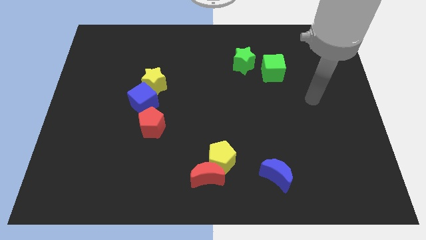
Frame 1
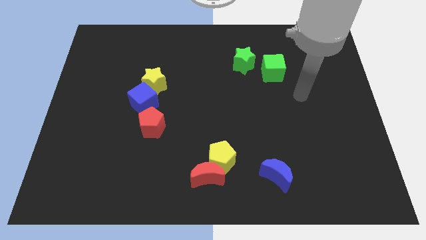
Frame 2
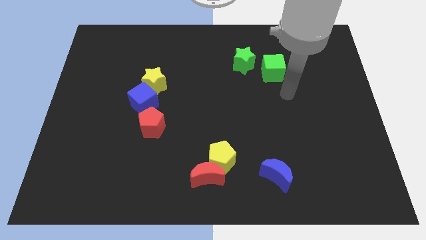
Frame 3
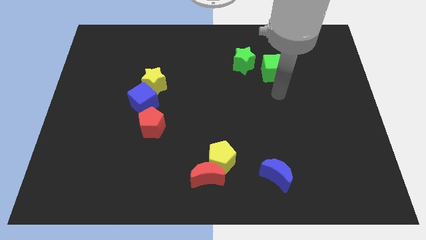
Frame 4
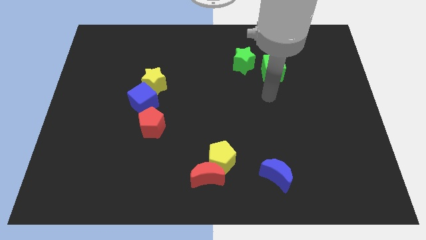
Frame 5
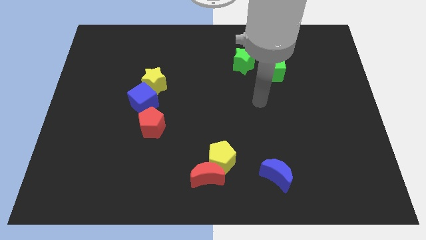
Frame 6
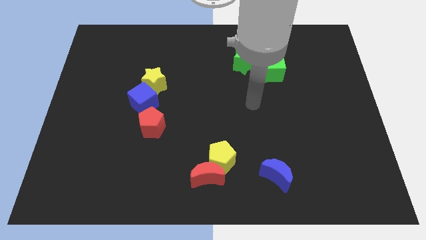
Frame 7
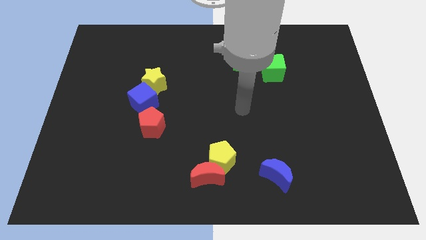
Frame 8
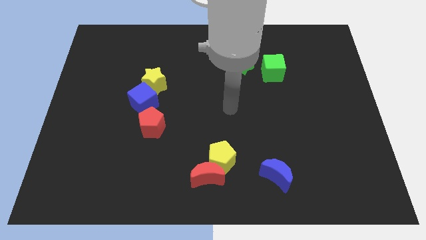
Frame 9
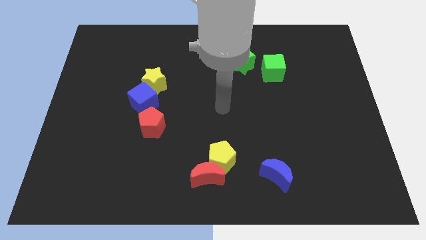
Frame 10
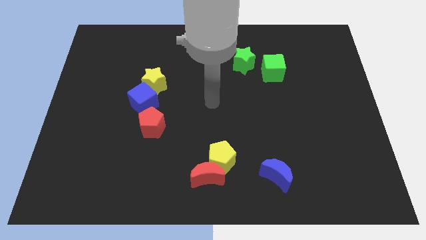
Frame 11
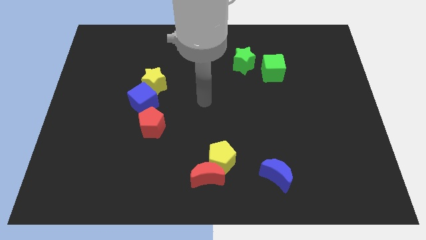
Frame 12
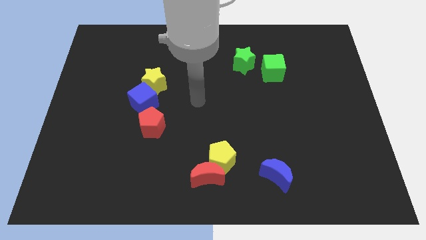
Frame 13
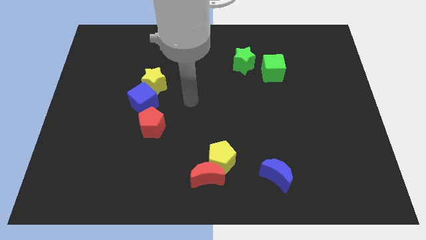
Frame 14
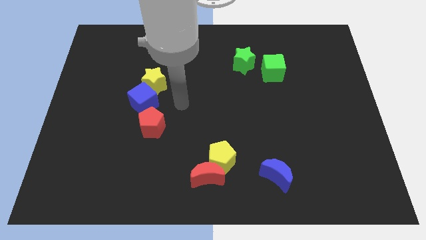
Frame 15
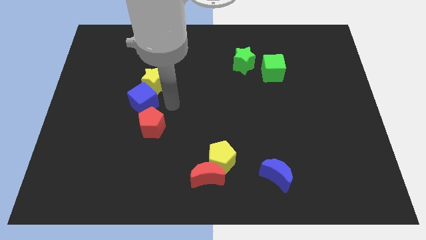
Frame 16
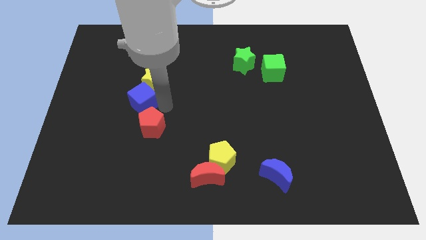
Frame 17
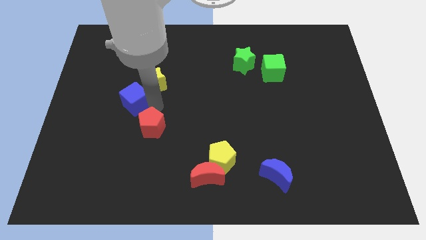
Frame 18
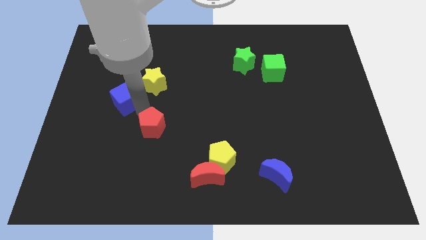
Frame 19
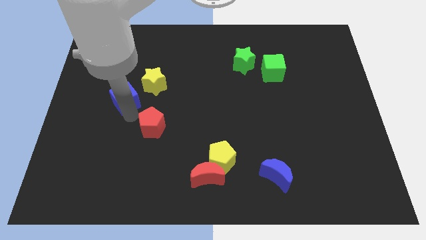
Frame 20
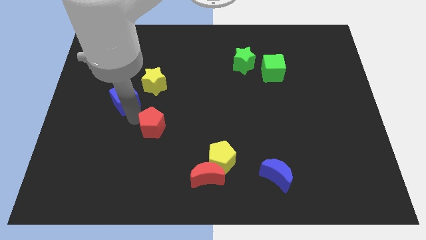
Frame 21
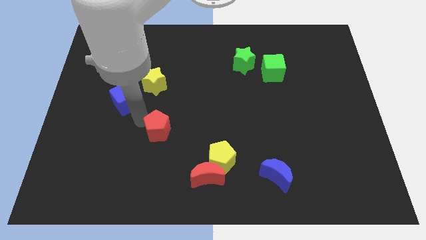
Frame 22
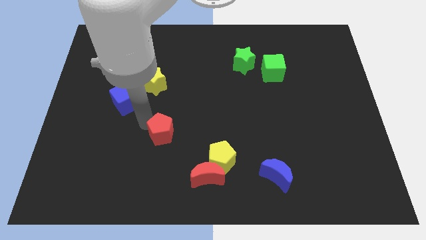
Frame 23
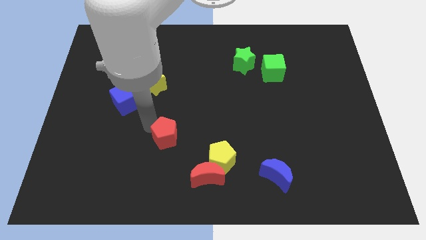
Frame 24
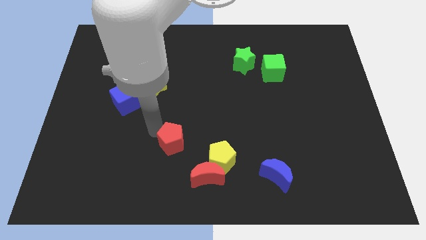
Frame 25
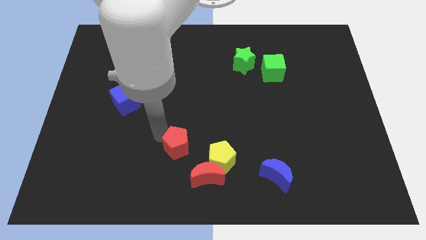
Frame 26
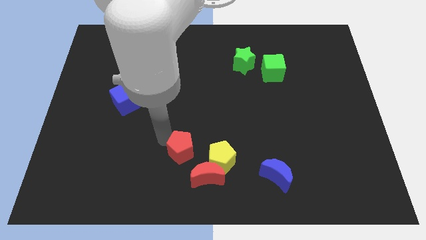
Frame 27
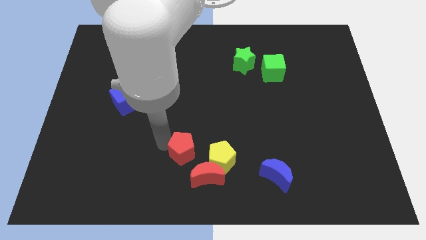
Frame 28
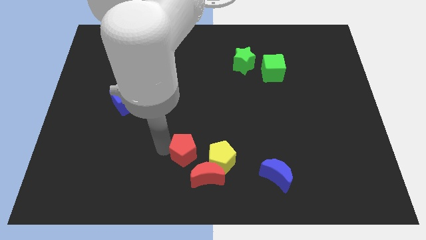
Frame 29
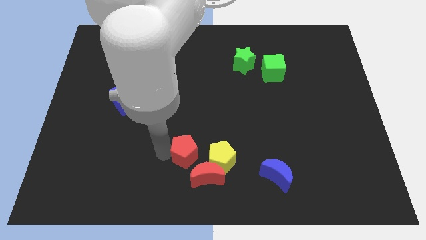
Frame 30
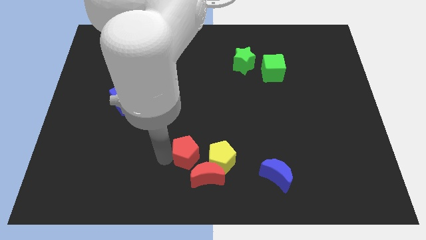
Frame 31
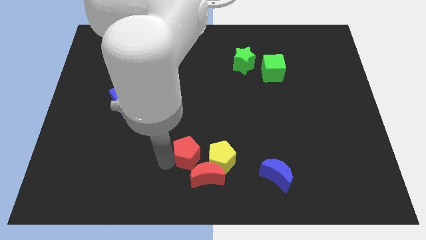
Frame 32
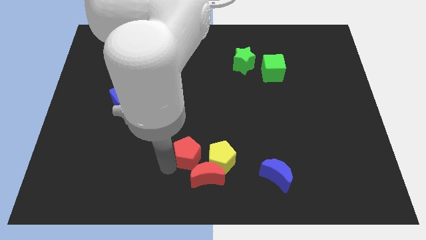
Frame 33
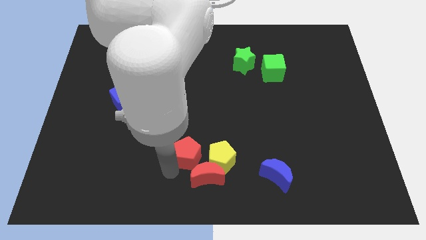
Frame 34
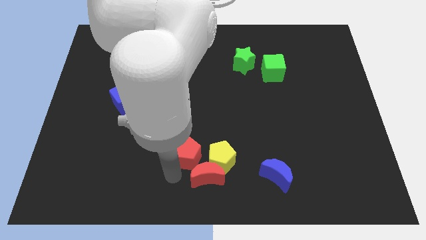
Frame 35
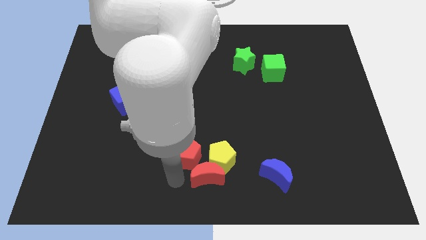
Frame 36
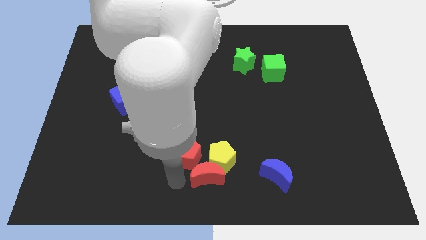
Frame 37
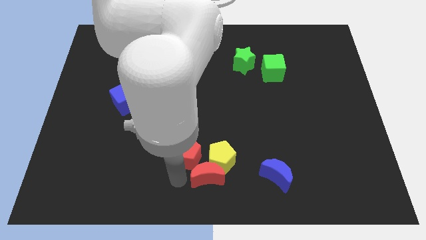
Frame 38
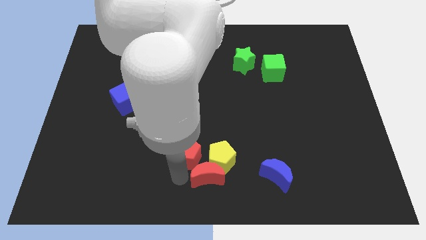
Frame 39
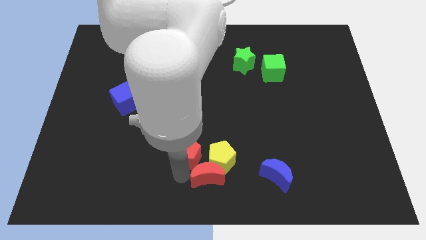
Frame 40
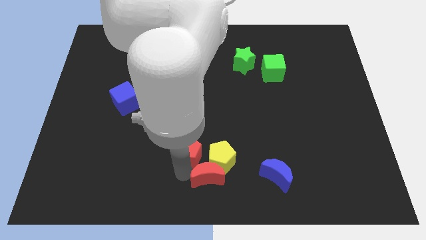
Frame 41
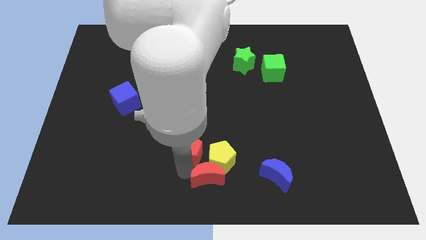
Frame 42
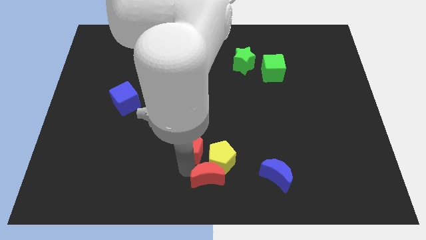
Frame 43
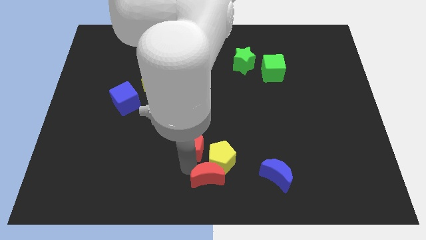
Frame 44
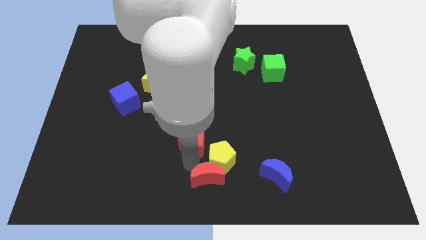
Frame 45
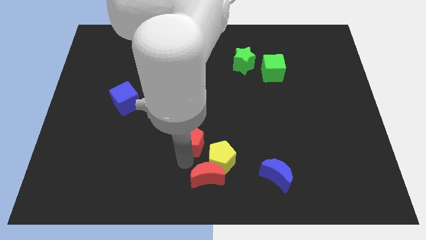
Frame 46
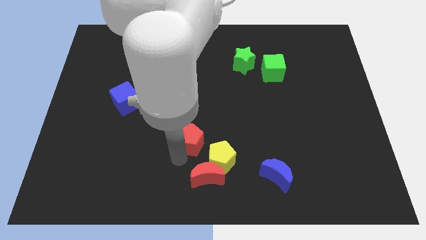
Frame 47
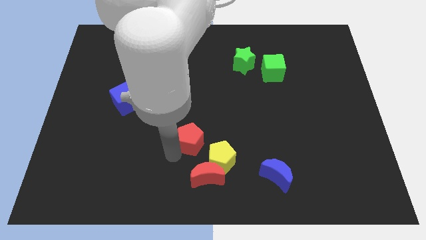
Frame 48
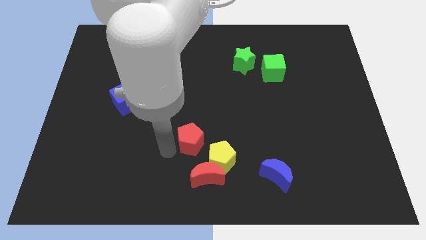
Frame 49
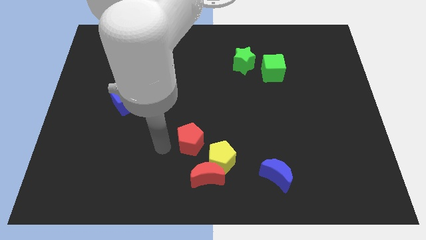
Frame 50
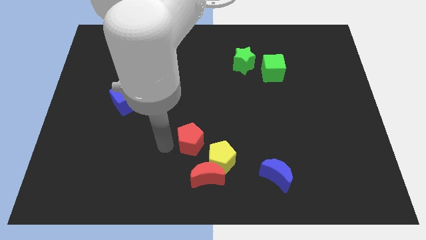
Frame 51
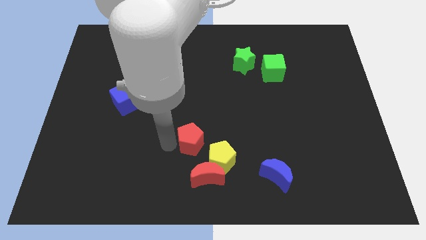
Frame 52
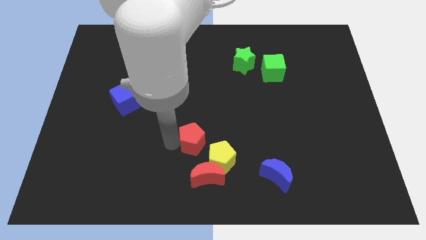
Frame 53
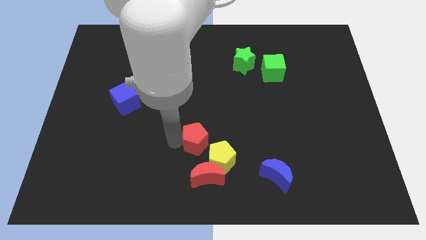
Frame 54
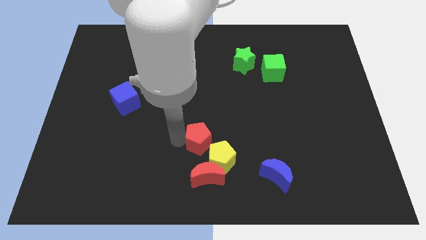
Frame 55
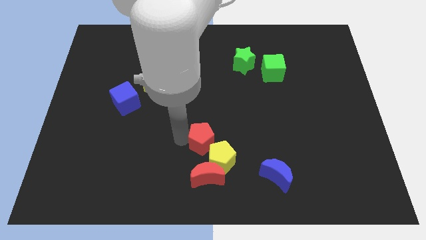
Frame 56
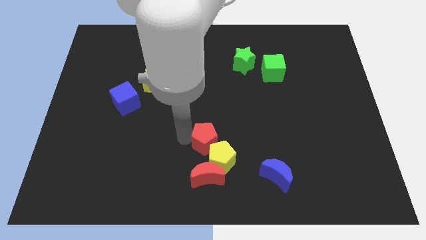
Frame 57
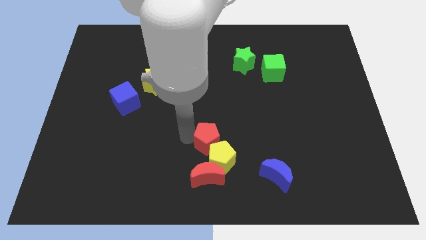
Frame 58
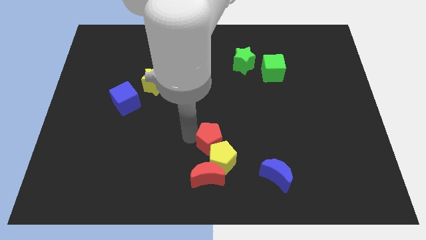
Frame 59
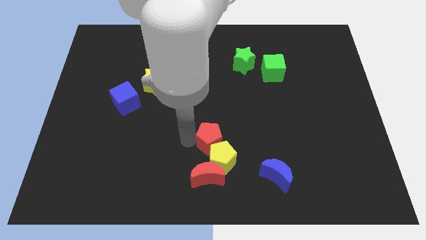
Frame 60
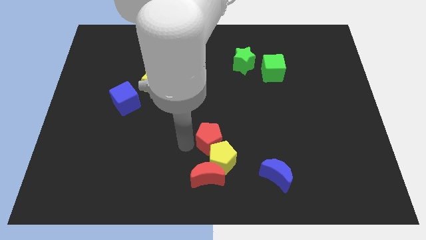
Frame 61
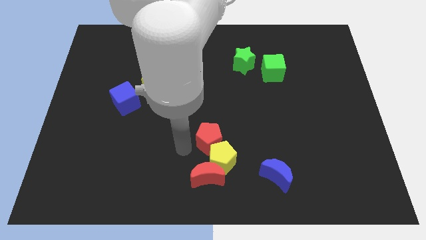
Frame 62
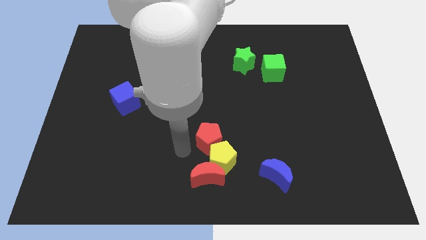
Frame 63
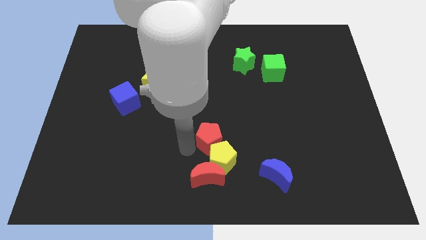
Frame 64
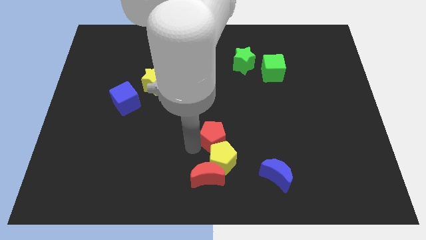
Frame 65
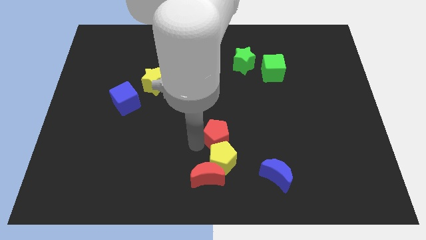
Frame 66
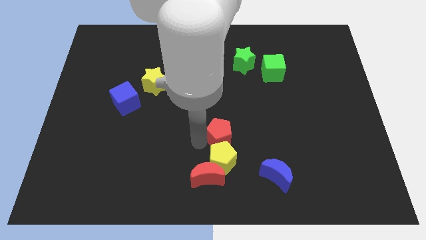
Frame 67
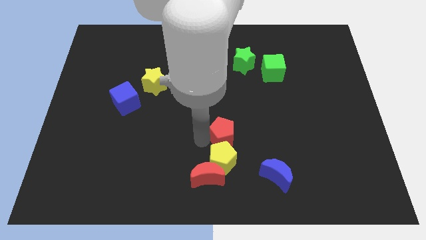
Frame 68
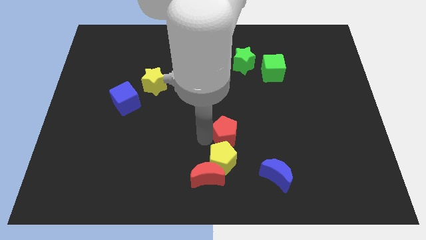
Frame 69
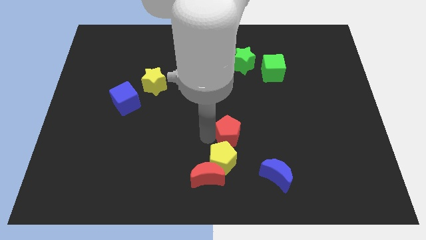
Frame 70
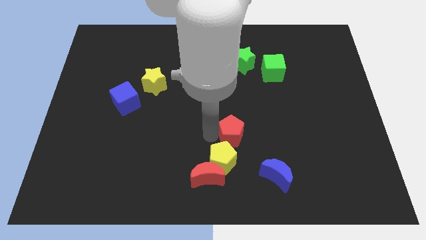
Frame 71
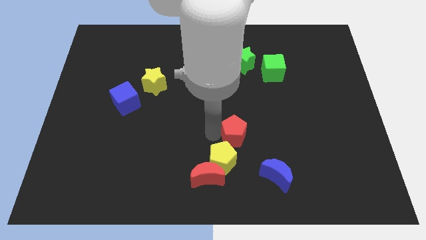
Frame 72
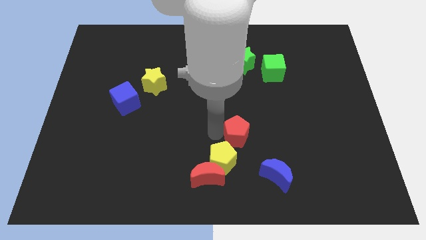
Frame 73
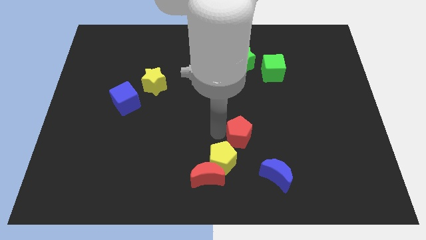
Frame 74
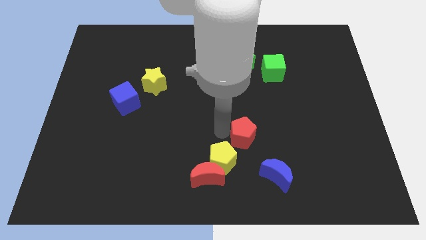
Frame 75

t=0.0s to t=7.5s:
push the red pentagon right

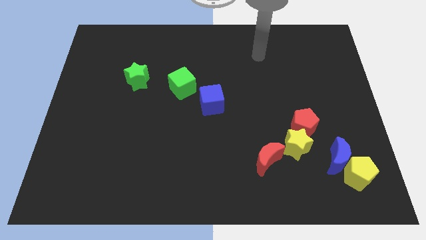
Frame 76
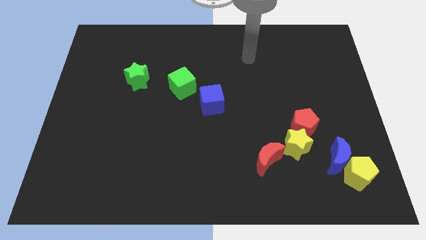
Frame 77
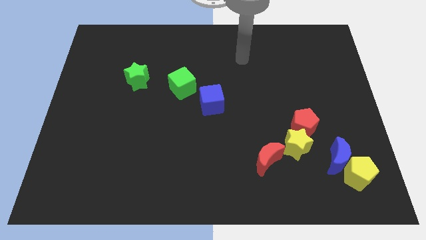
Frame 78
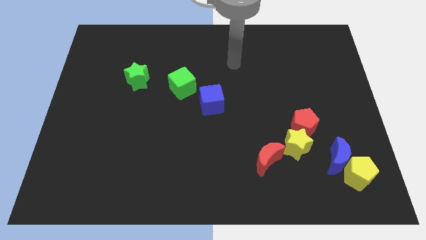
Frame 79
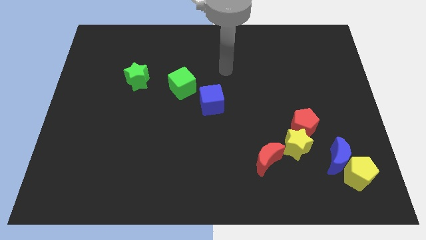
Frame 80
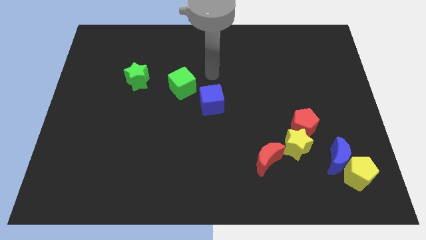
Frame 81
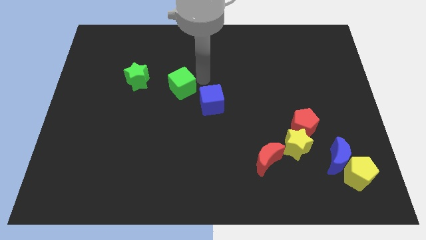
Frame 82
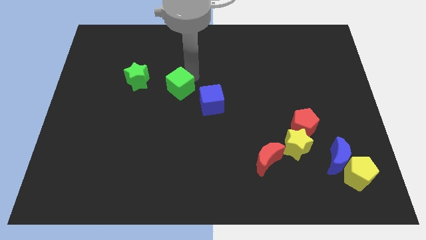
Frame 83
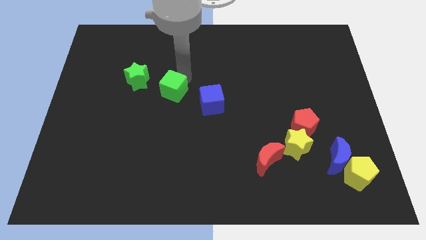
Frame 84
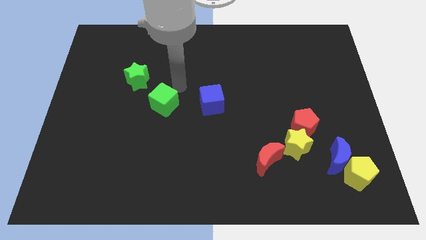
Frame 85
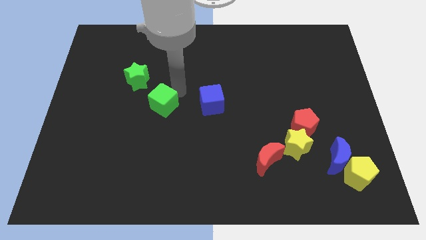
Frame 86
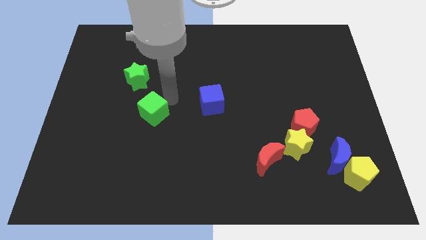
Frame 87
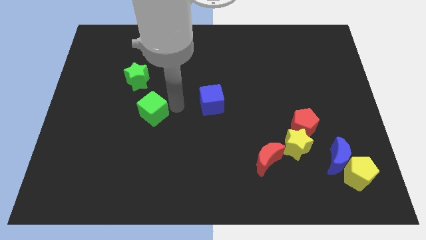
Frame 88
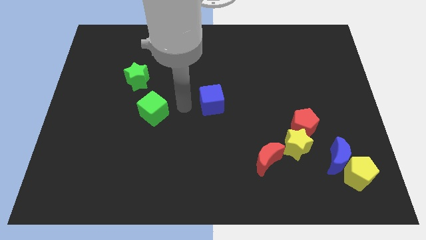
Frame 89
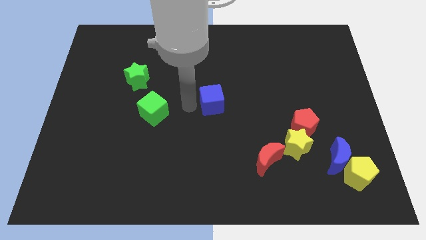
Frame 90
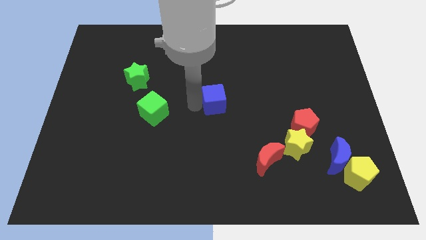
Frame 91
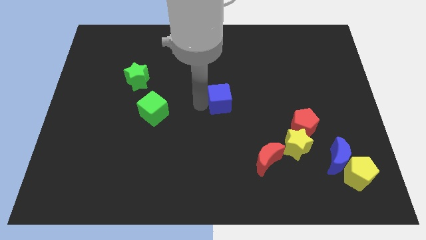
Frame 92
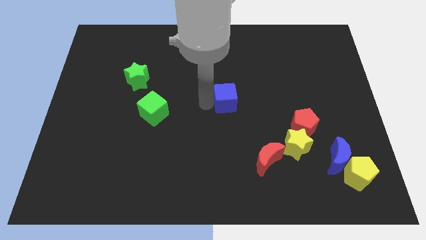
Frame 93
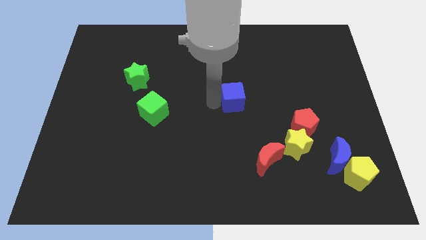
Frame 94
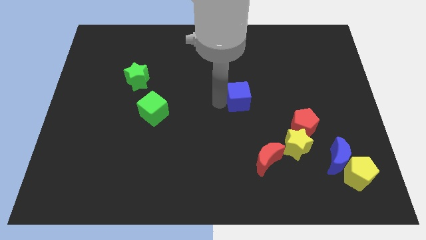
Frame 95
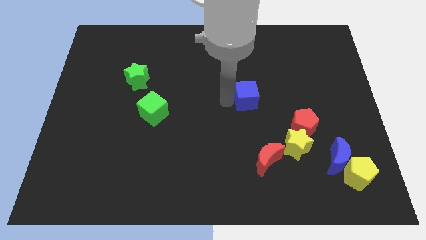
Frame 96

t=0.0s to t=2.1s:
push the blue cube a bit to the right
